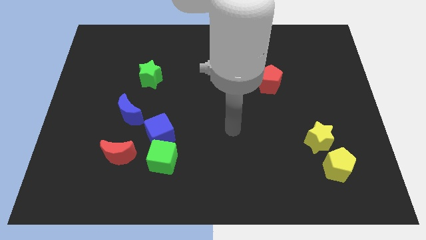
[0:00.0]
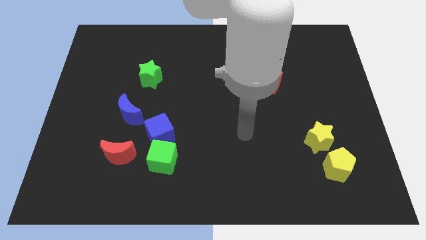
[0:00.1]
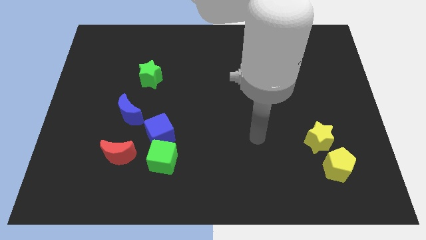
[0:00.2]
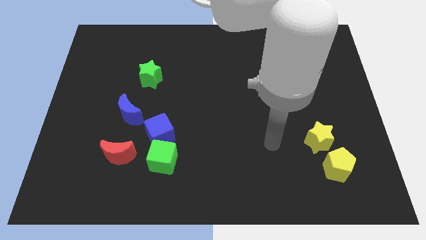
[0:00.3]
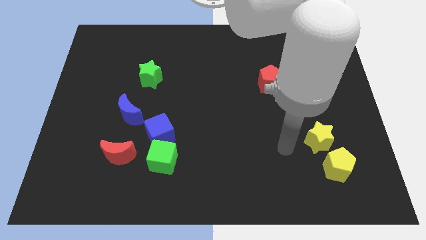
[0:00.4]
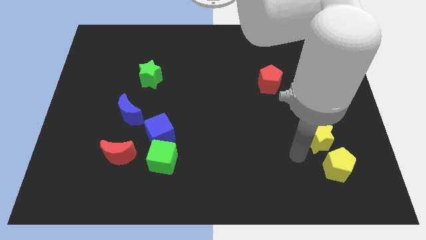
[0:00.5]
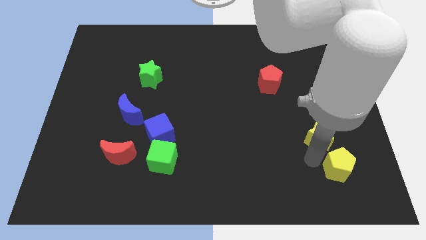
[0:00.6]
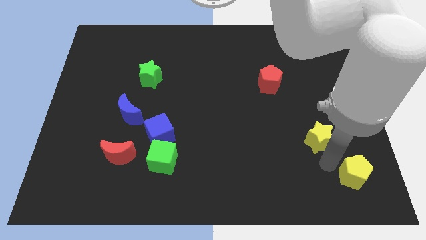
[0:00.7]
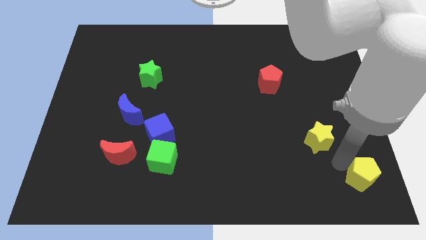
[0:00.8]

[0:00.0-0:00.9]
move the yellow star away from the yellow pentagon

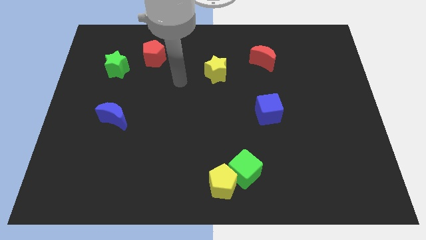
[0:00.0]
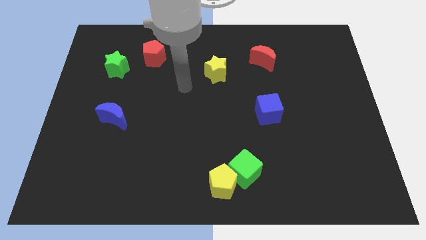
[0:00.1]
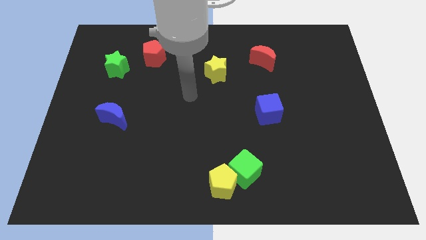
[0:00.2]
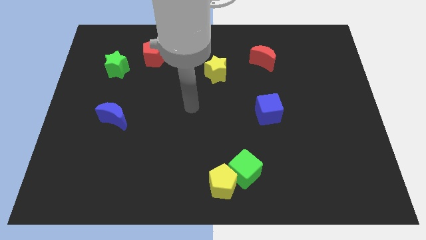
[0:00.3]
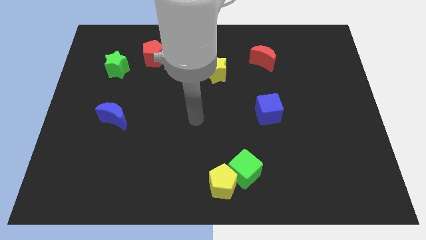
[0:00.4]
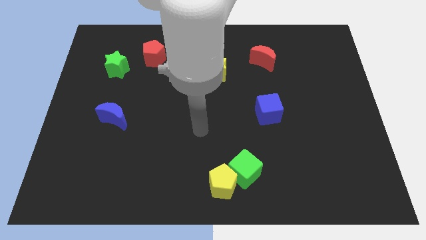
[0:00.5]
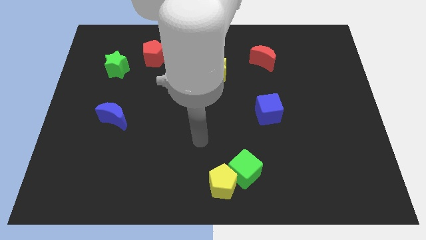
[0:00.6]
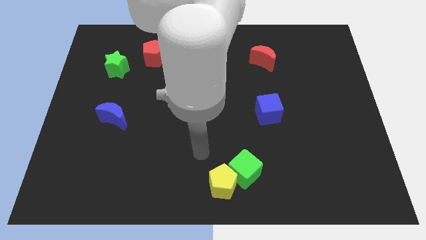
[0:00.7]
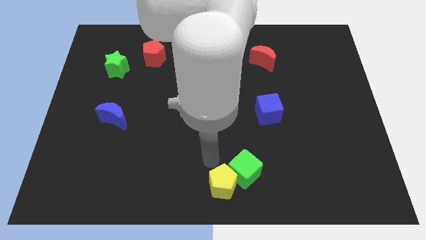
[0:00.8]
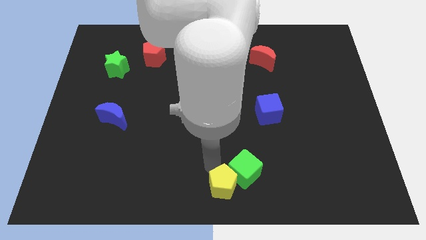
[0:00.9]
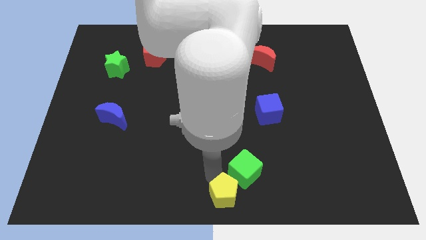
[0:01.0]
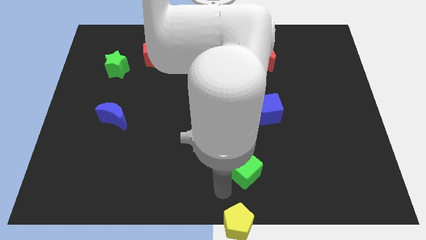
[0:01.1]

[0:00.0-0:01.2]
separate the green cube from the yellow pentagon

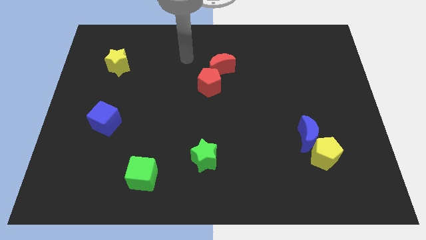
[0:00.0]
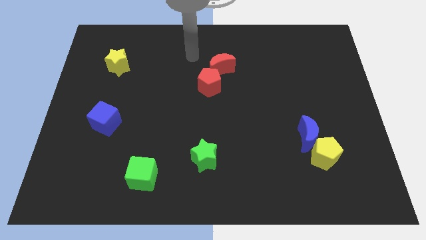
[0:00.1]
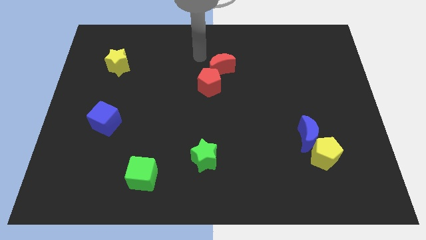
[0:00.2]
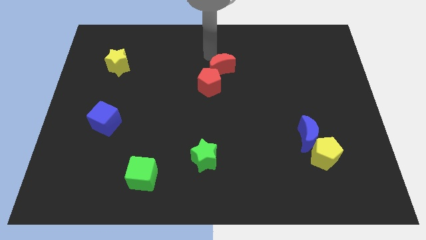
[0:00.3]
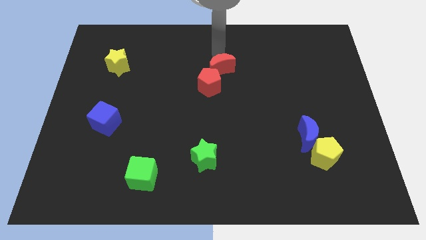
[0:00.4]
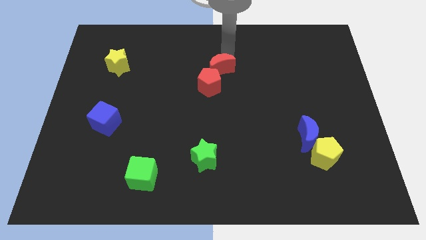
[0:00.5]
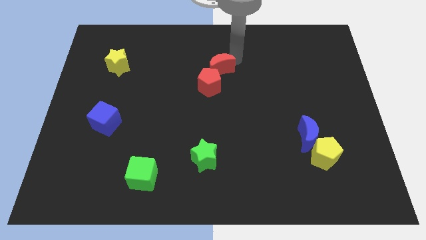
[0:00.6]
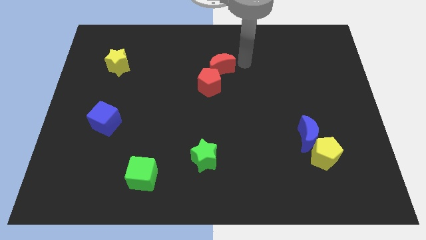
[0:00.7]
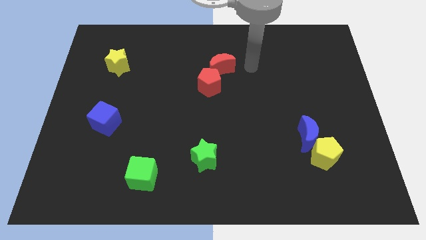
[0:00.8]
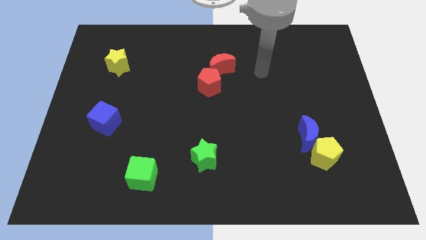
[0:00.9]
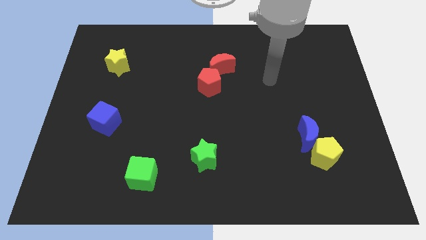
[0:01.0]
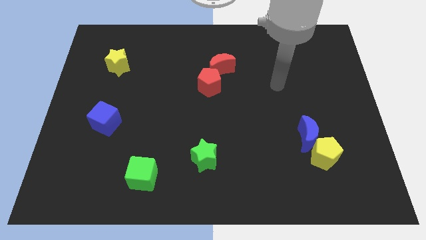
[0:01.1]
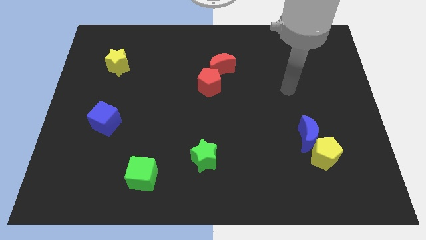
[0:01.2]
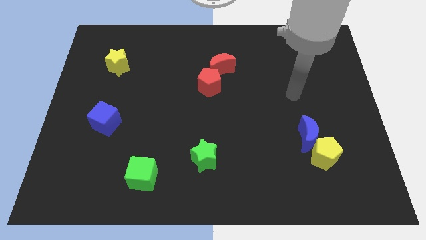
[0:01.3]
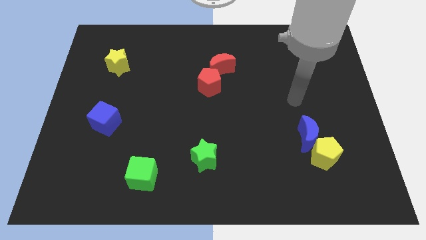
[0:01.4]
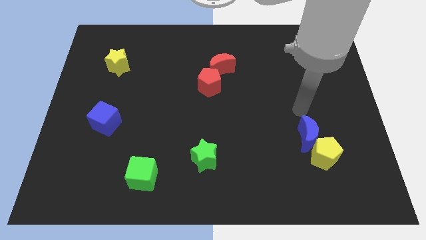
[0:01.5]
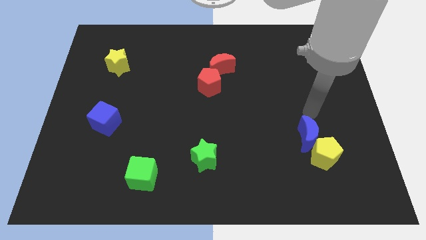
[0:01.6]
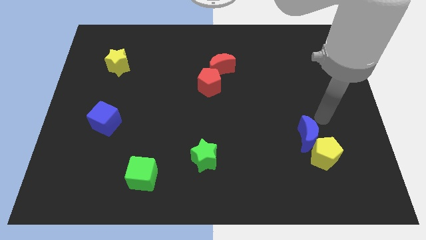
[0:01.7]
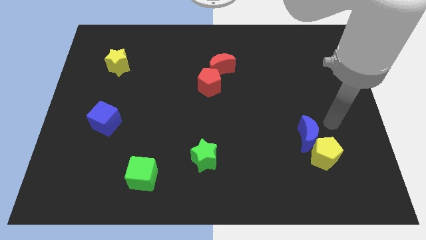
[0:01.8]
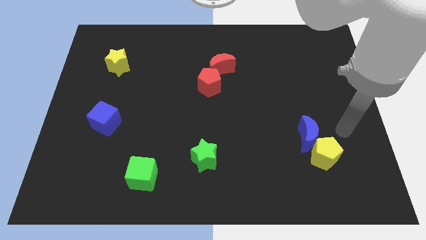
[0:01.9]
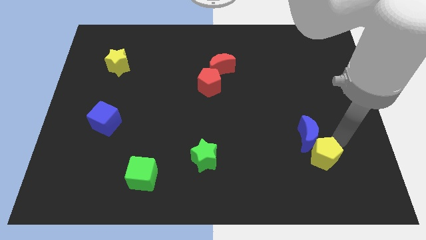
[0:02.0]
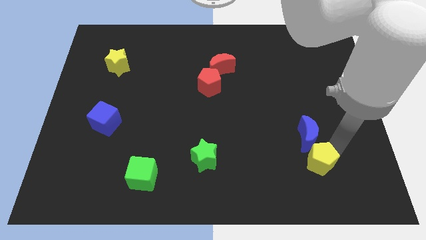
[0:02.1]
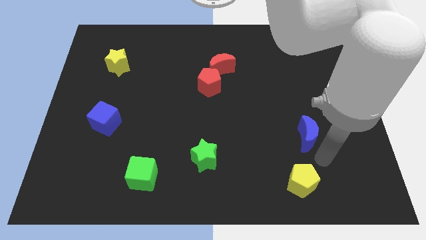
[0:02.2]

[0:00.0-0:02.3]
separate the blue moon from the yellow pentagon

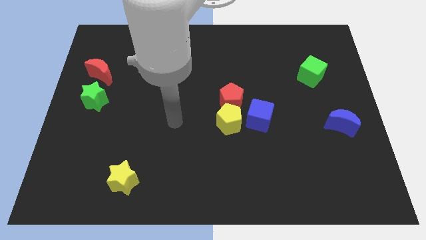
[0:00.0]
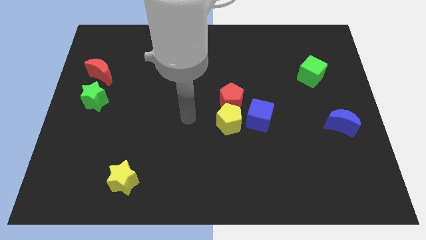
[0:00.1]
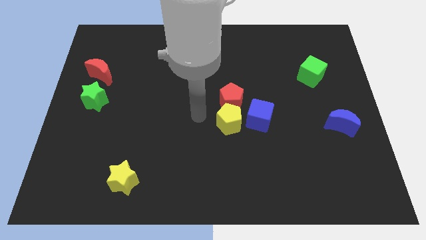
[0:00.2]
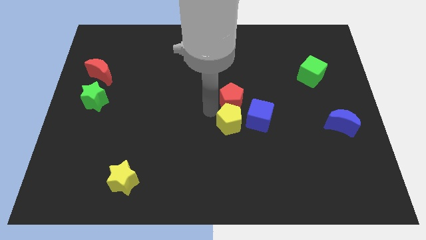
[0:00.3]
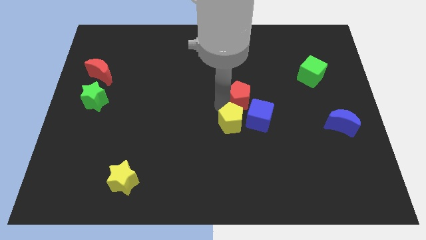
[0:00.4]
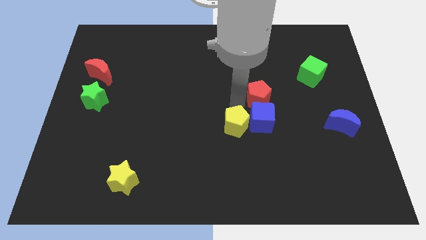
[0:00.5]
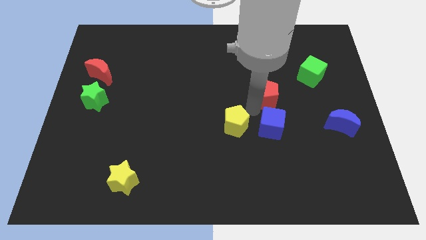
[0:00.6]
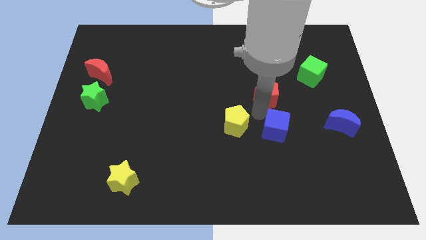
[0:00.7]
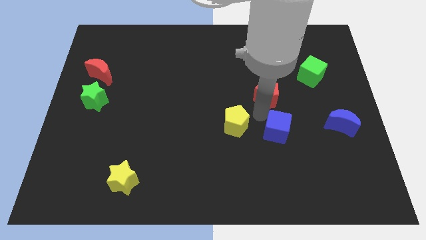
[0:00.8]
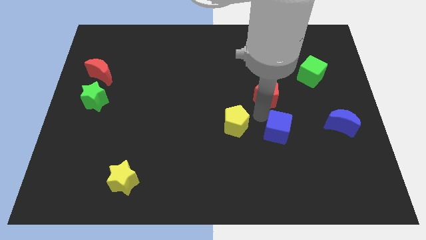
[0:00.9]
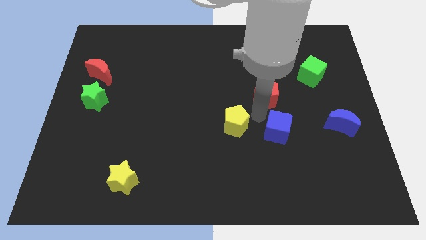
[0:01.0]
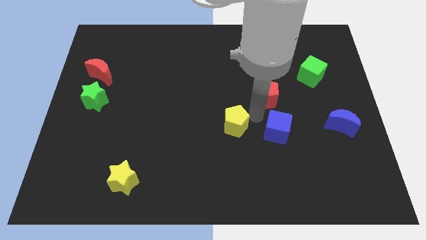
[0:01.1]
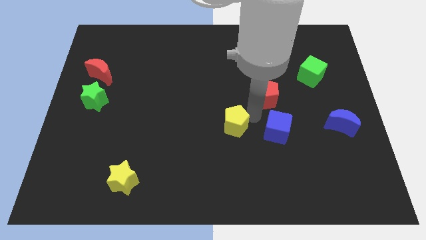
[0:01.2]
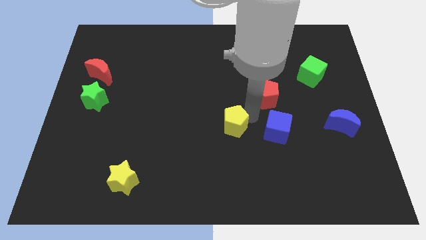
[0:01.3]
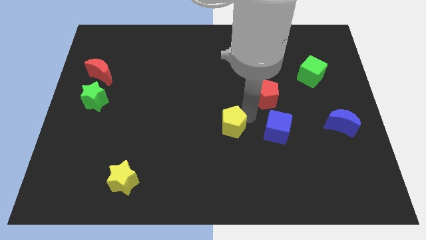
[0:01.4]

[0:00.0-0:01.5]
move the yellow pentagon away from the red pentagon and blue cube

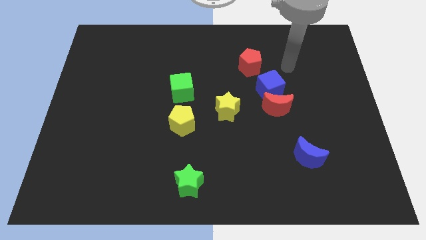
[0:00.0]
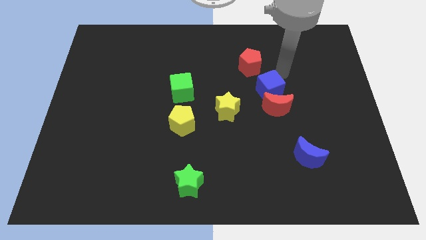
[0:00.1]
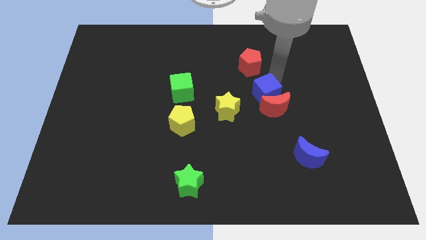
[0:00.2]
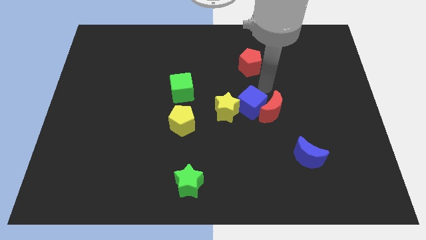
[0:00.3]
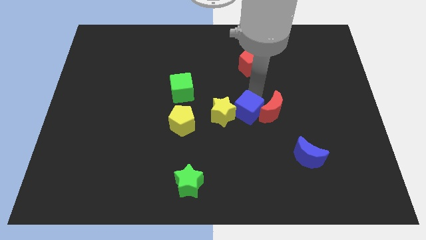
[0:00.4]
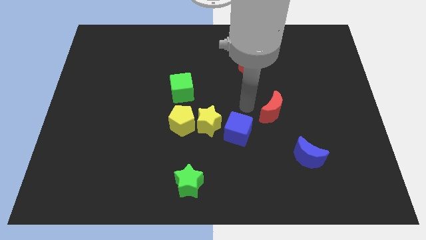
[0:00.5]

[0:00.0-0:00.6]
move the red moon away from the blue cube

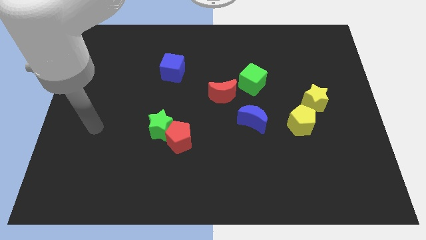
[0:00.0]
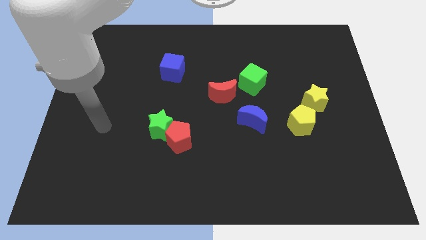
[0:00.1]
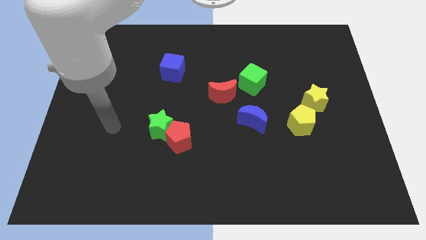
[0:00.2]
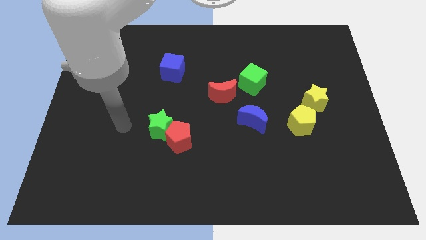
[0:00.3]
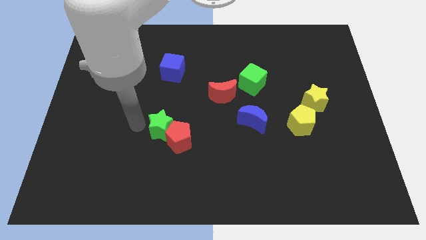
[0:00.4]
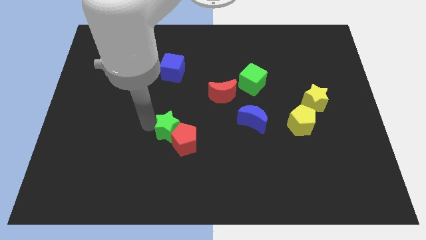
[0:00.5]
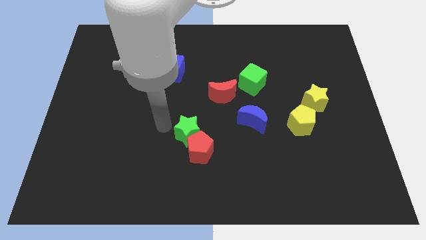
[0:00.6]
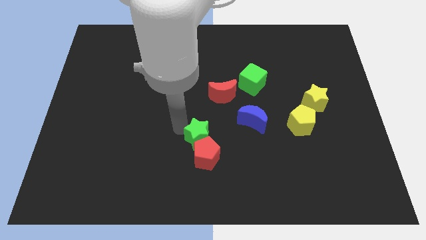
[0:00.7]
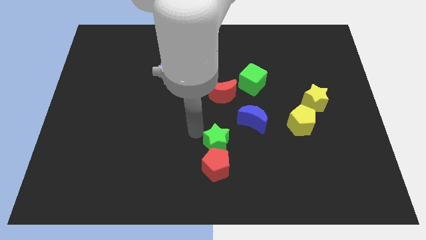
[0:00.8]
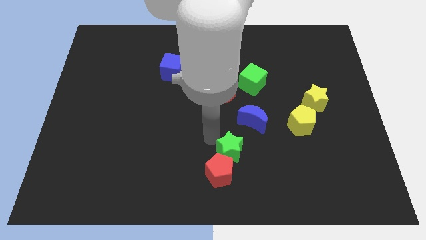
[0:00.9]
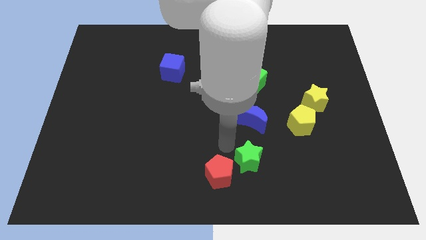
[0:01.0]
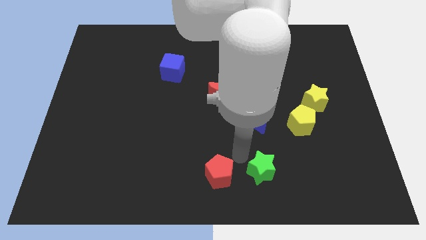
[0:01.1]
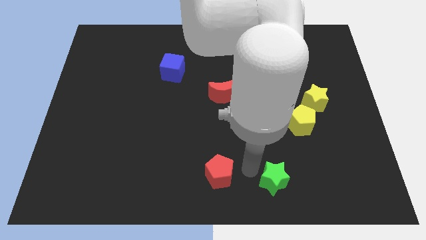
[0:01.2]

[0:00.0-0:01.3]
pull the red pentagon apart from the green star

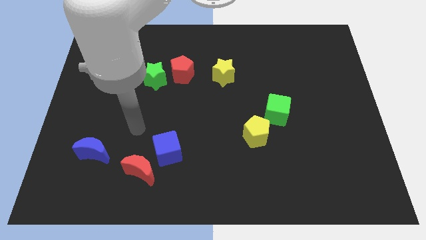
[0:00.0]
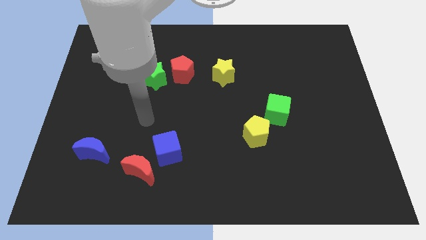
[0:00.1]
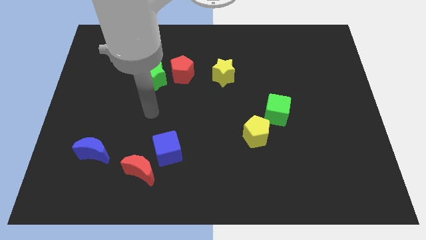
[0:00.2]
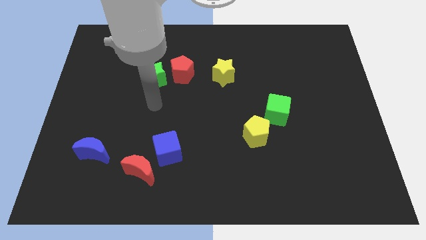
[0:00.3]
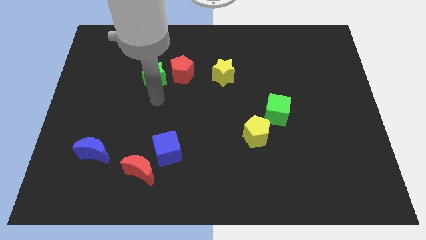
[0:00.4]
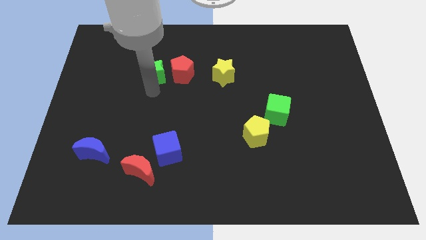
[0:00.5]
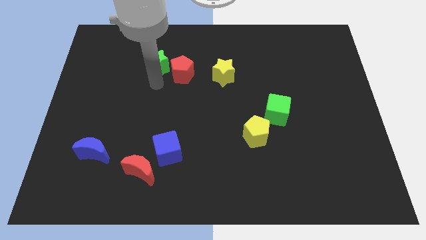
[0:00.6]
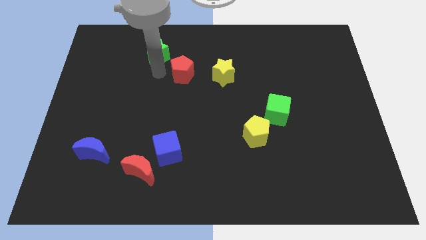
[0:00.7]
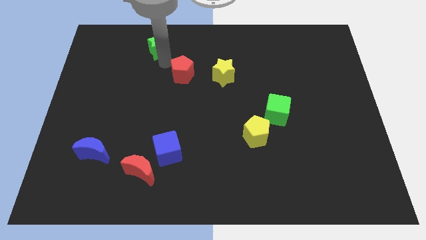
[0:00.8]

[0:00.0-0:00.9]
move the red pentagon away from the green star

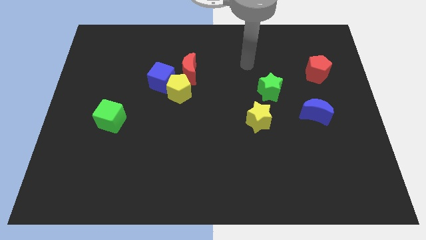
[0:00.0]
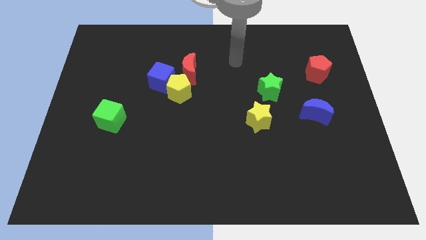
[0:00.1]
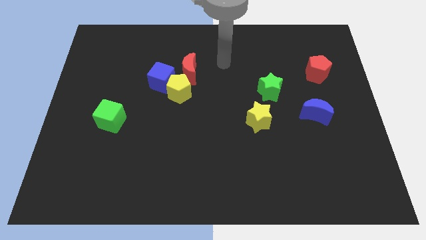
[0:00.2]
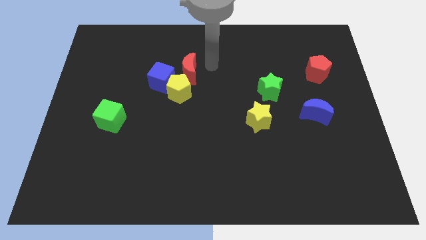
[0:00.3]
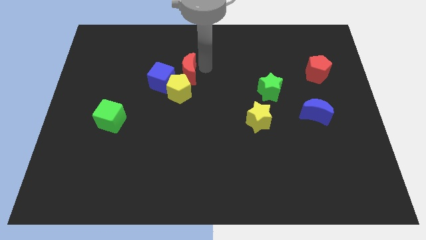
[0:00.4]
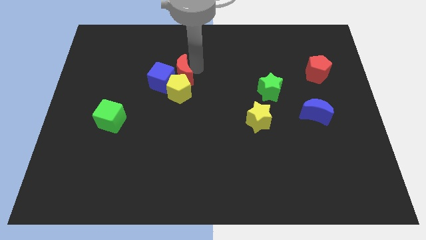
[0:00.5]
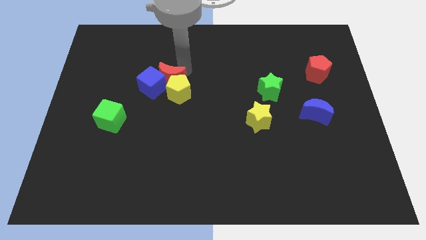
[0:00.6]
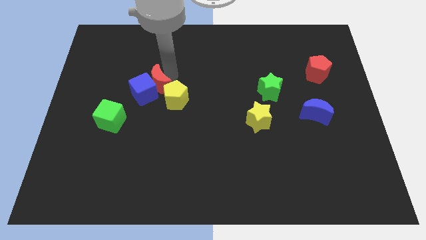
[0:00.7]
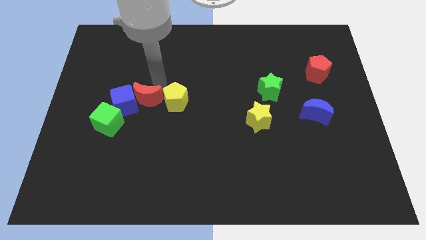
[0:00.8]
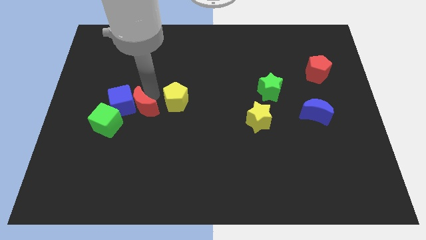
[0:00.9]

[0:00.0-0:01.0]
move the yellow pentagon away from the blue cube and red moon
